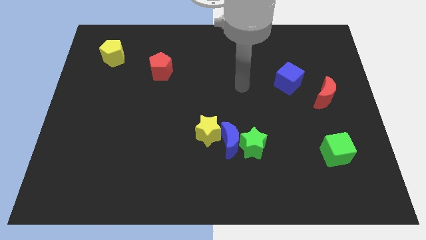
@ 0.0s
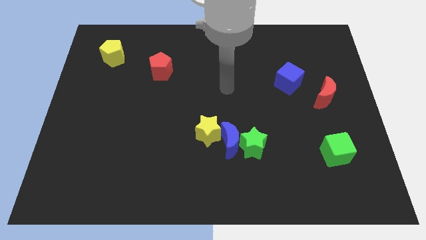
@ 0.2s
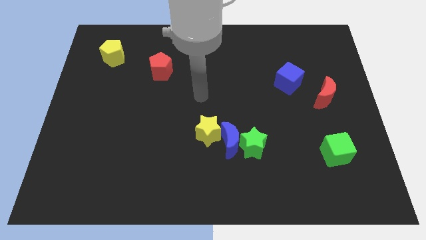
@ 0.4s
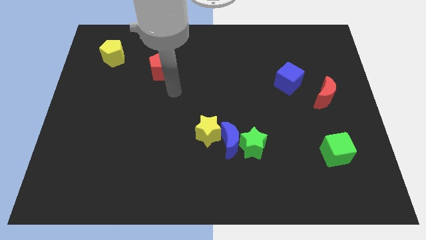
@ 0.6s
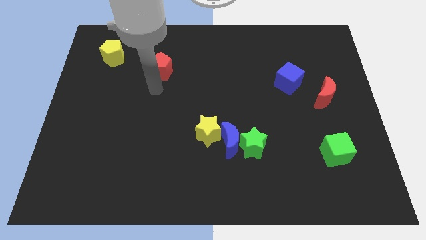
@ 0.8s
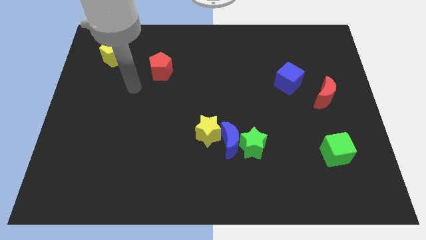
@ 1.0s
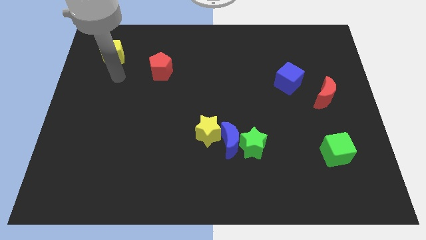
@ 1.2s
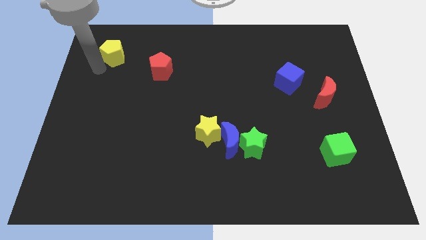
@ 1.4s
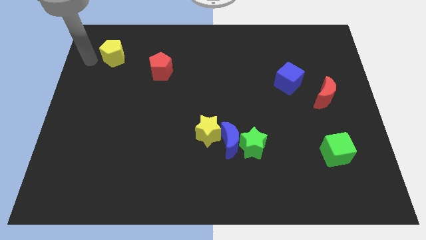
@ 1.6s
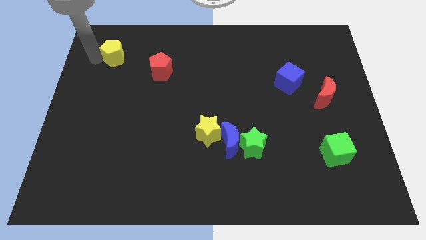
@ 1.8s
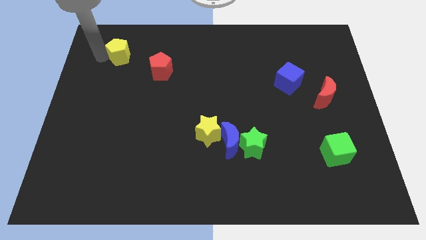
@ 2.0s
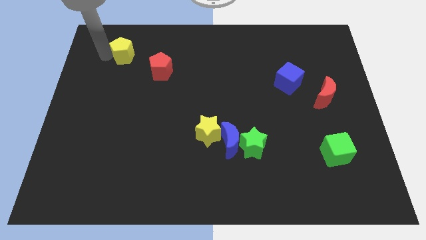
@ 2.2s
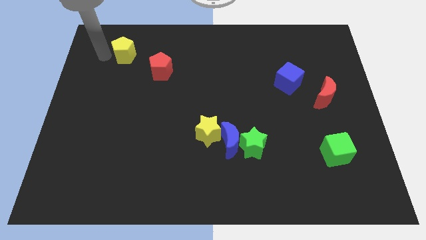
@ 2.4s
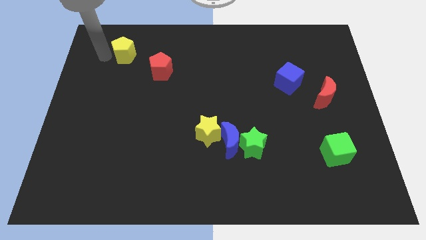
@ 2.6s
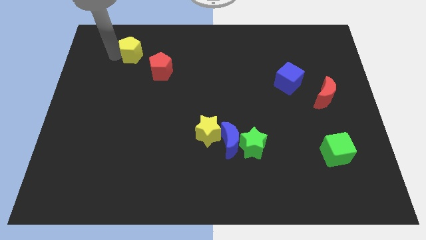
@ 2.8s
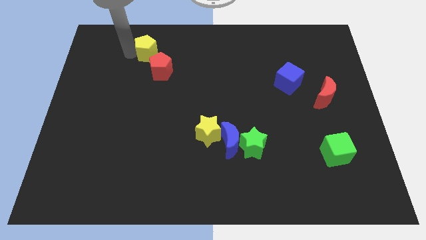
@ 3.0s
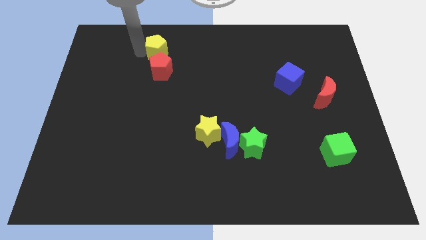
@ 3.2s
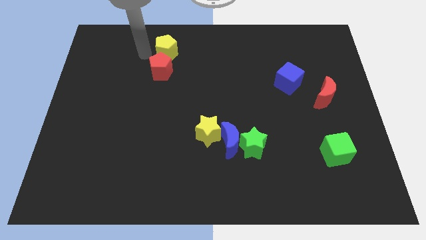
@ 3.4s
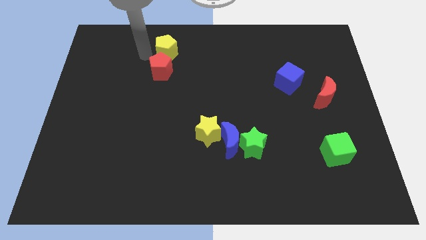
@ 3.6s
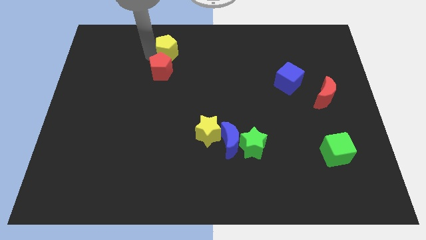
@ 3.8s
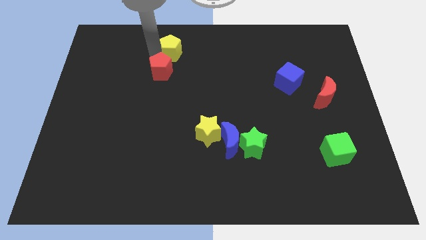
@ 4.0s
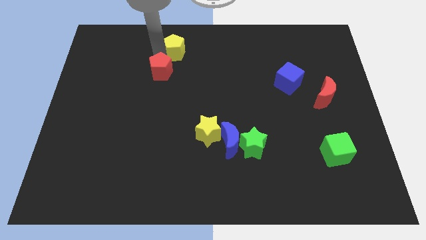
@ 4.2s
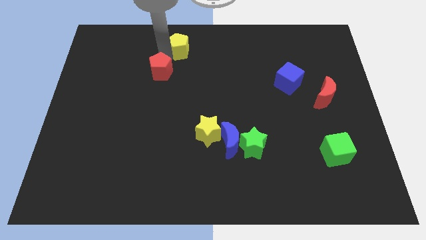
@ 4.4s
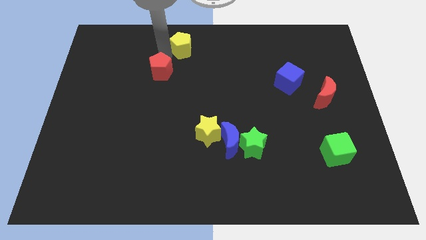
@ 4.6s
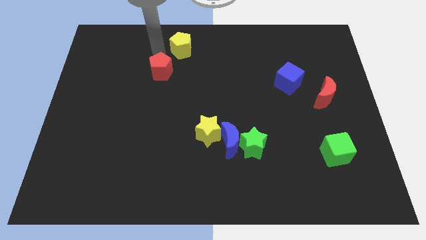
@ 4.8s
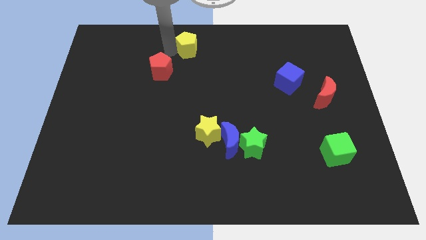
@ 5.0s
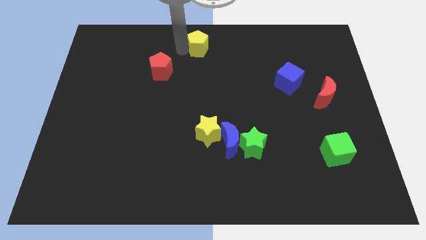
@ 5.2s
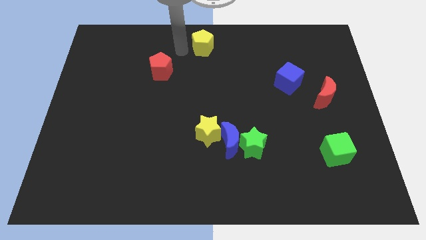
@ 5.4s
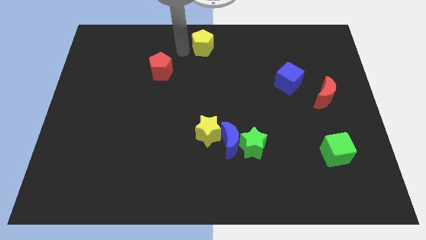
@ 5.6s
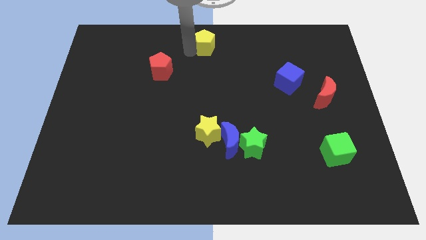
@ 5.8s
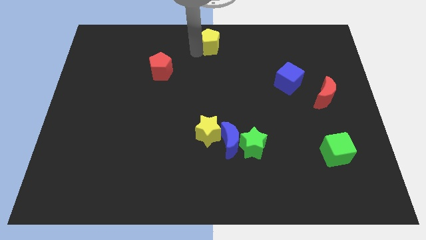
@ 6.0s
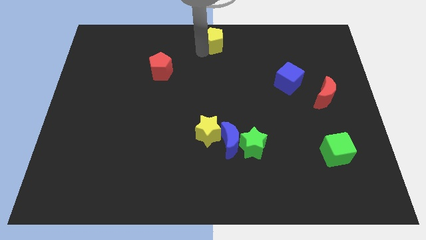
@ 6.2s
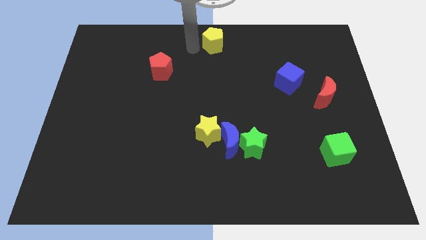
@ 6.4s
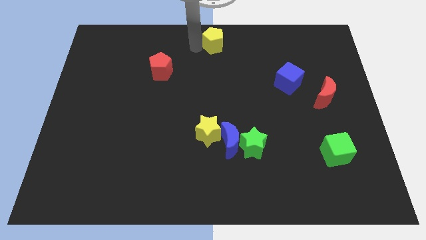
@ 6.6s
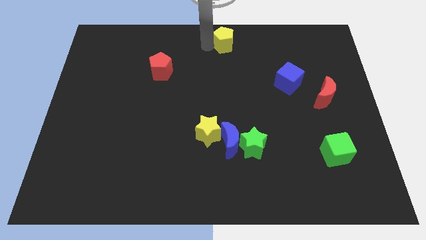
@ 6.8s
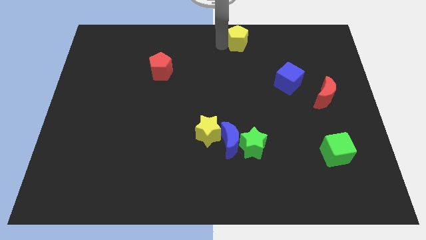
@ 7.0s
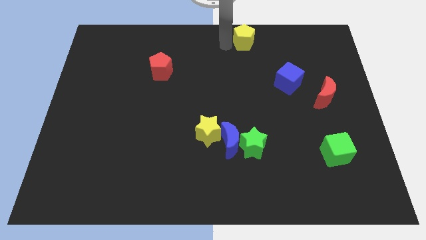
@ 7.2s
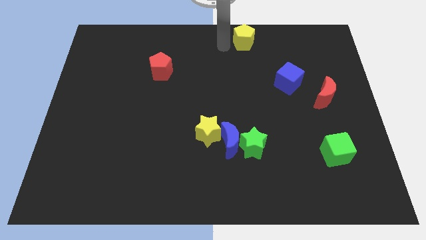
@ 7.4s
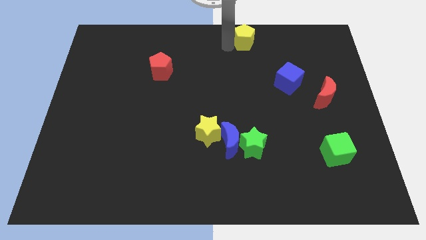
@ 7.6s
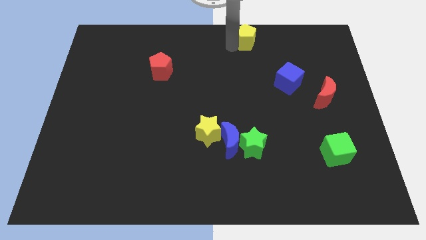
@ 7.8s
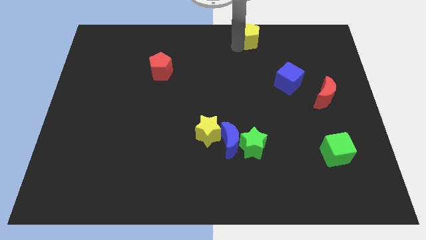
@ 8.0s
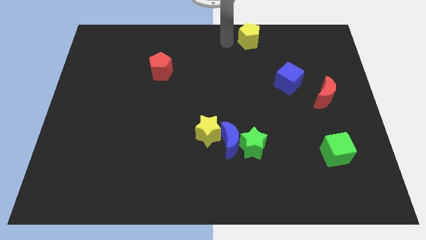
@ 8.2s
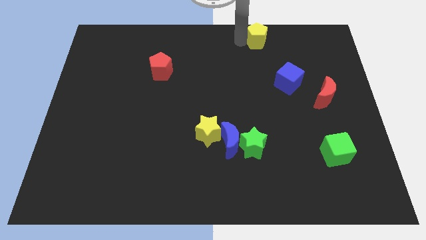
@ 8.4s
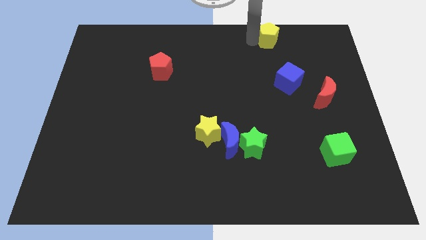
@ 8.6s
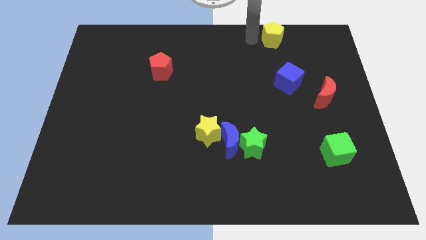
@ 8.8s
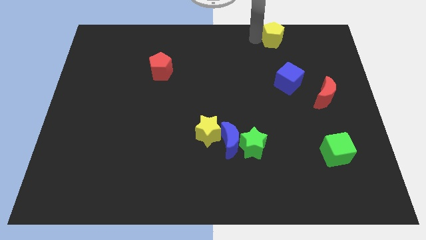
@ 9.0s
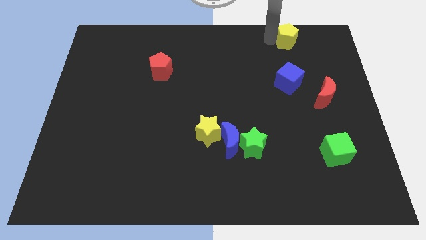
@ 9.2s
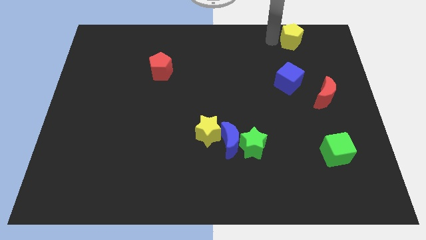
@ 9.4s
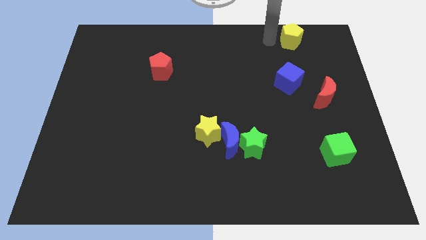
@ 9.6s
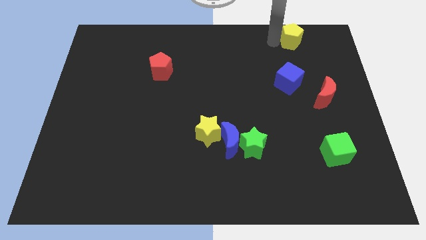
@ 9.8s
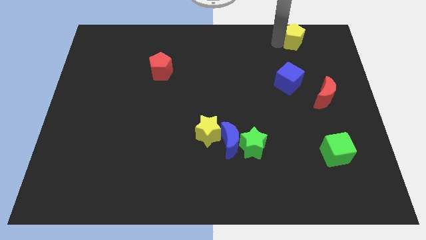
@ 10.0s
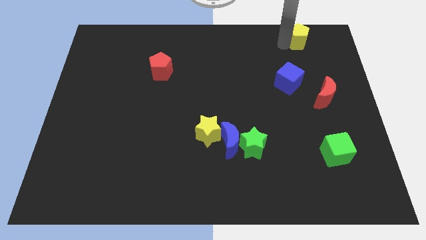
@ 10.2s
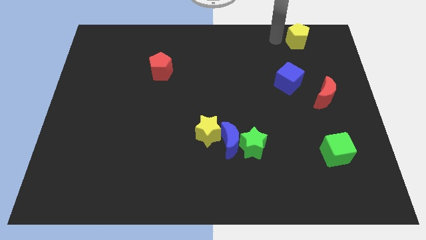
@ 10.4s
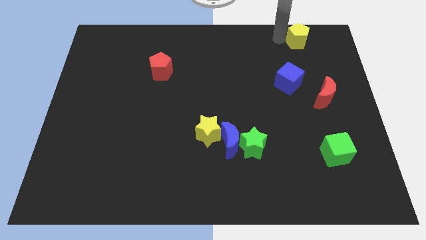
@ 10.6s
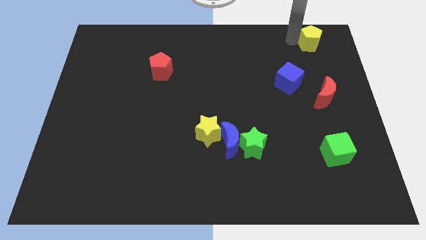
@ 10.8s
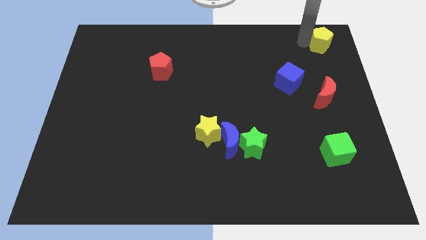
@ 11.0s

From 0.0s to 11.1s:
push the yellow pentagon to the top right
